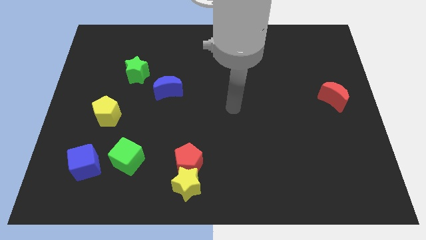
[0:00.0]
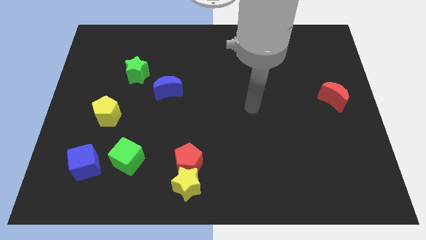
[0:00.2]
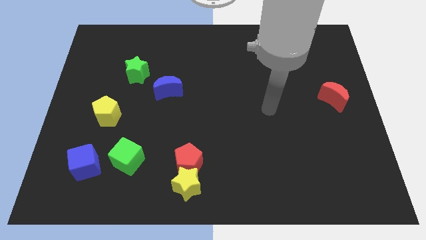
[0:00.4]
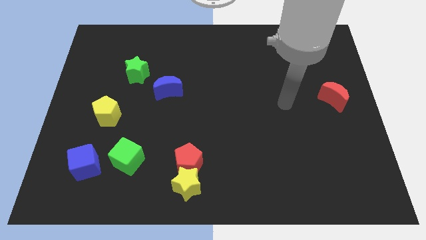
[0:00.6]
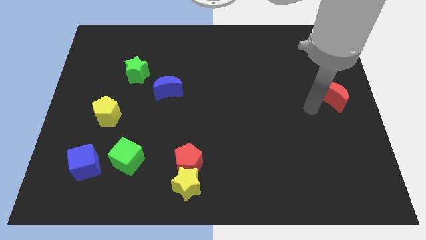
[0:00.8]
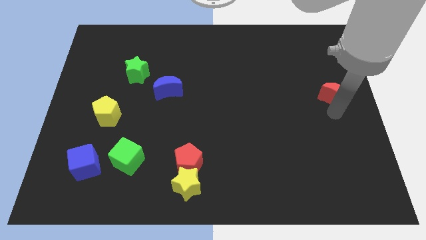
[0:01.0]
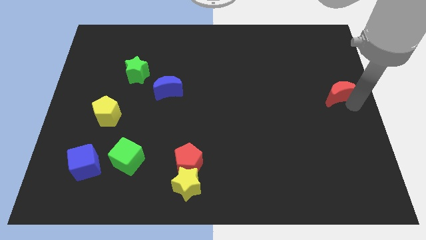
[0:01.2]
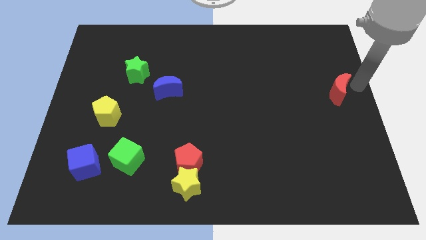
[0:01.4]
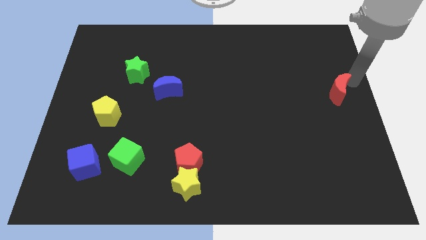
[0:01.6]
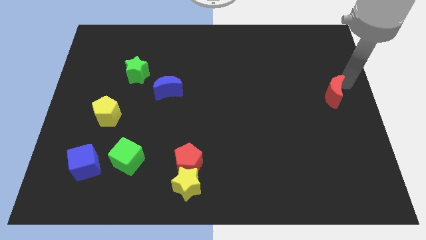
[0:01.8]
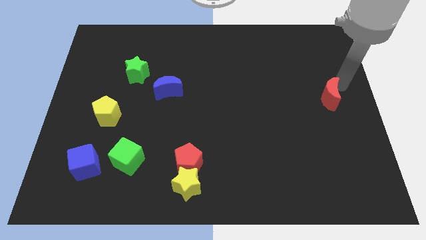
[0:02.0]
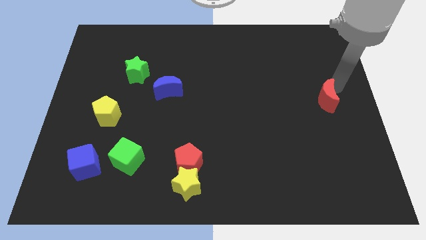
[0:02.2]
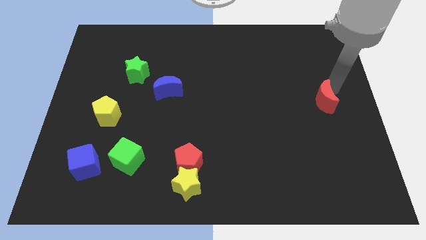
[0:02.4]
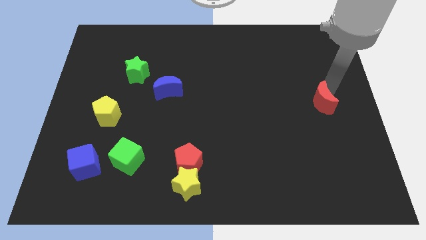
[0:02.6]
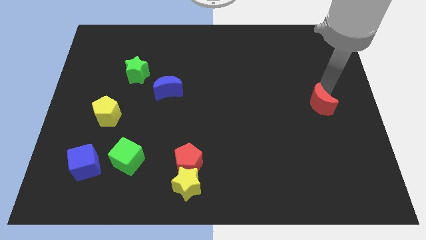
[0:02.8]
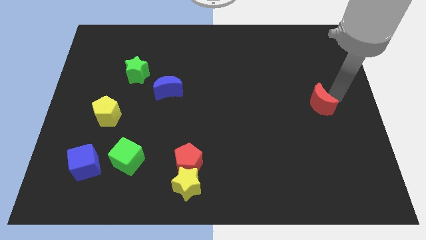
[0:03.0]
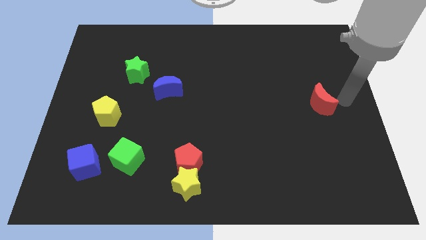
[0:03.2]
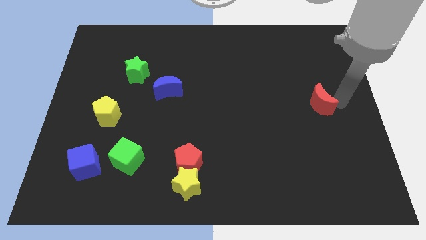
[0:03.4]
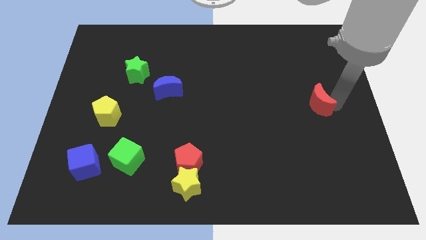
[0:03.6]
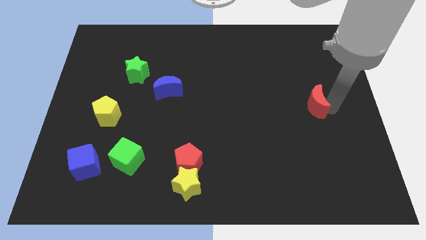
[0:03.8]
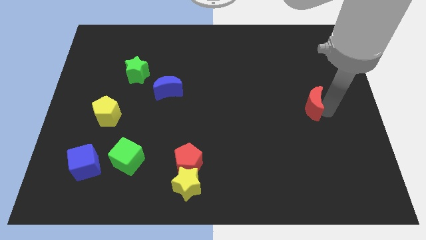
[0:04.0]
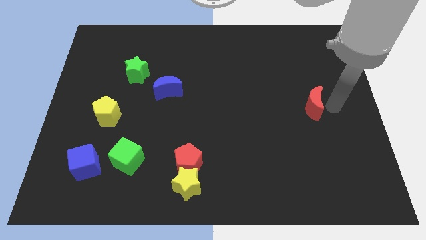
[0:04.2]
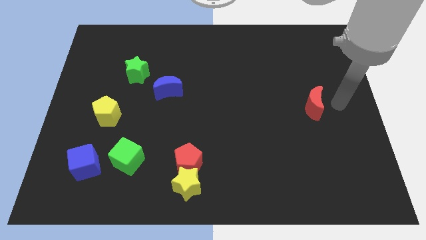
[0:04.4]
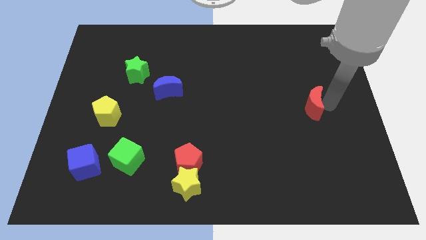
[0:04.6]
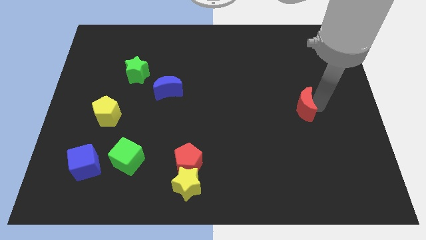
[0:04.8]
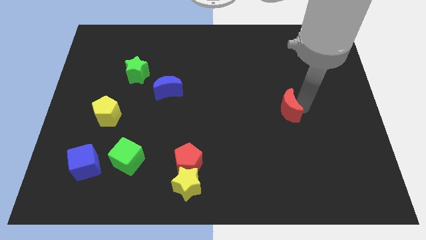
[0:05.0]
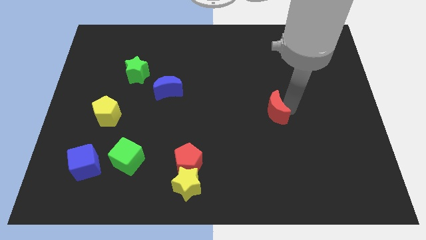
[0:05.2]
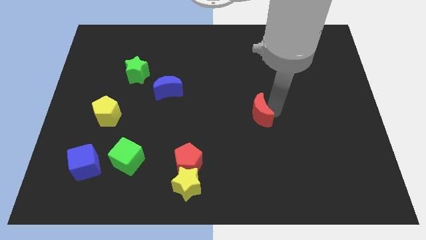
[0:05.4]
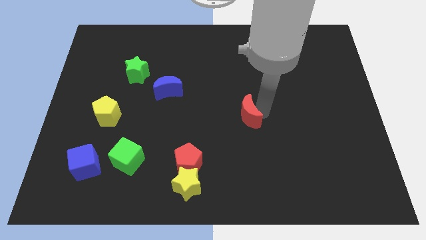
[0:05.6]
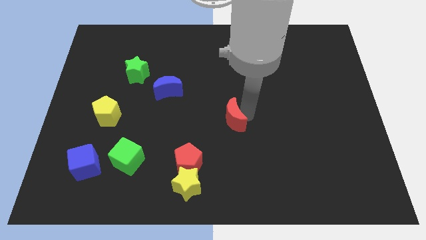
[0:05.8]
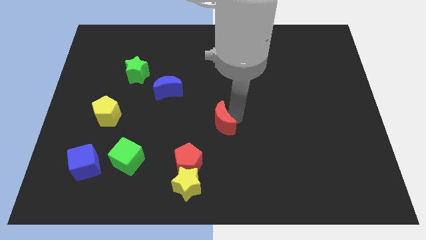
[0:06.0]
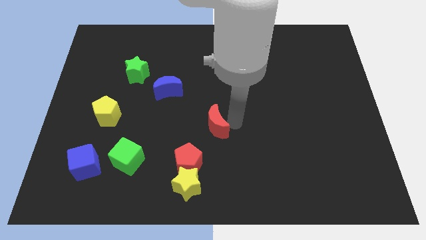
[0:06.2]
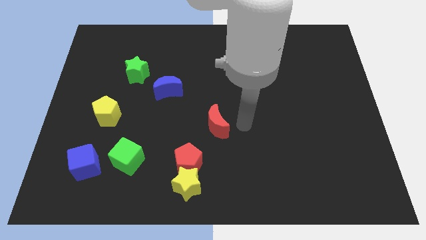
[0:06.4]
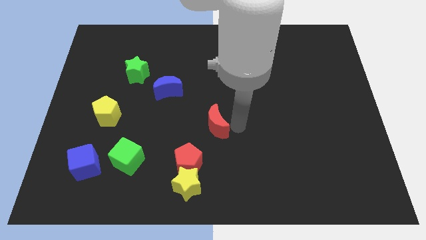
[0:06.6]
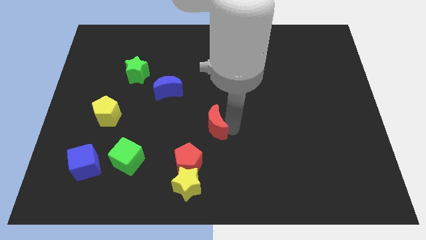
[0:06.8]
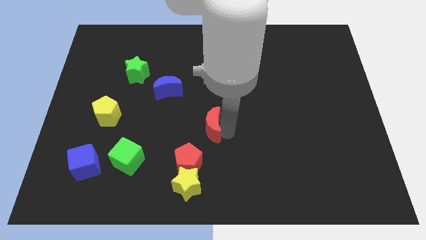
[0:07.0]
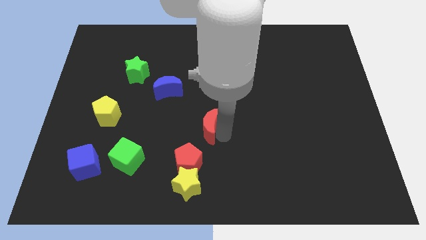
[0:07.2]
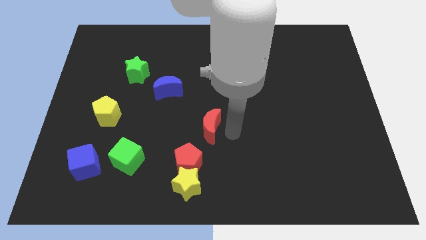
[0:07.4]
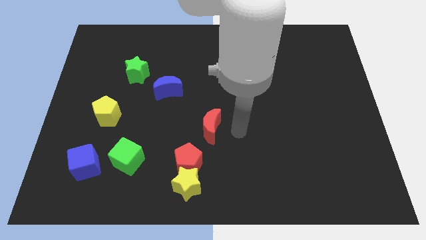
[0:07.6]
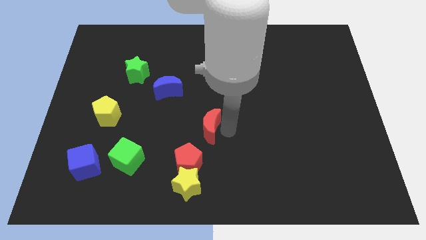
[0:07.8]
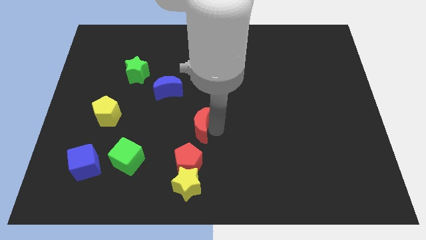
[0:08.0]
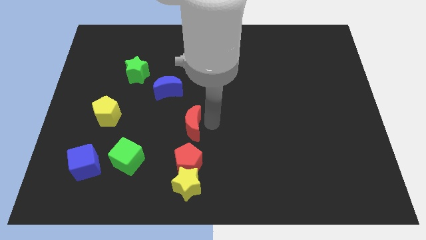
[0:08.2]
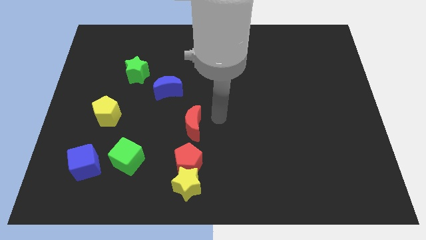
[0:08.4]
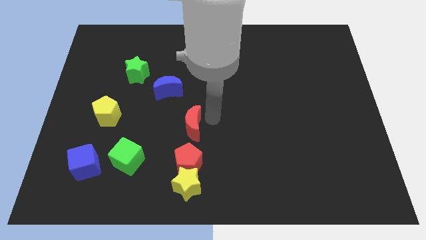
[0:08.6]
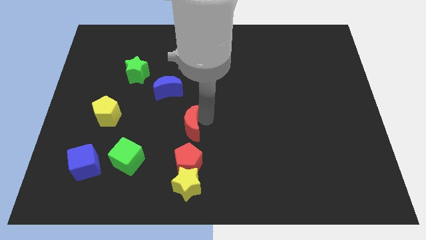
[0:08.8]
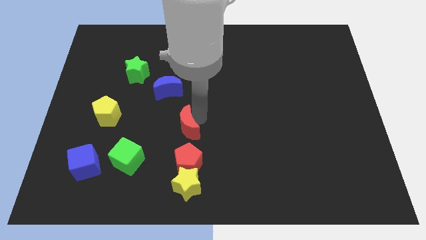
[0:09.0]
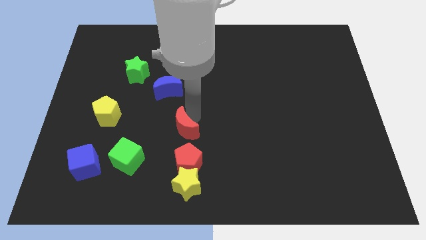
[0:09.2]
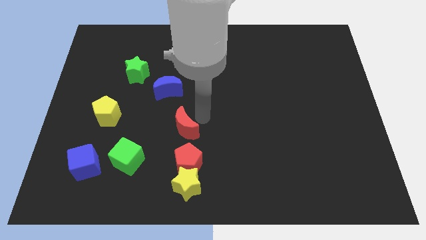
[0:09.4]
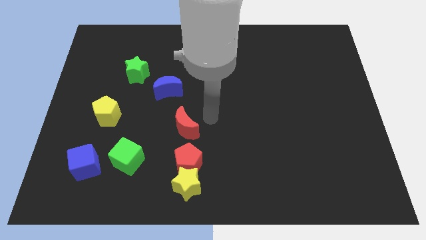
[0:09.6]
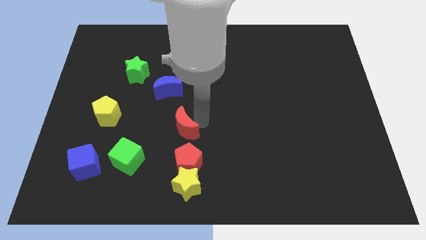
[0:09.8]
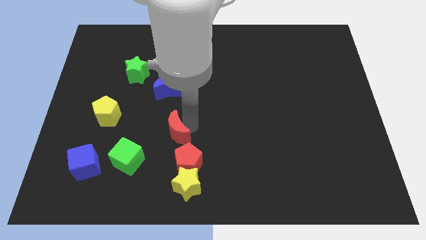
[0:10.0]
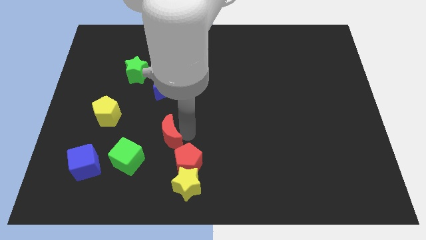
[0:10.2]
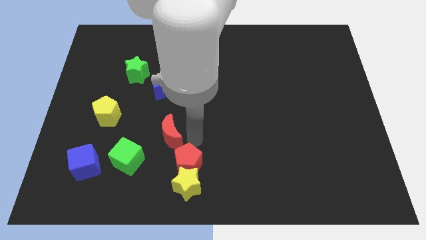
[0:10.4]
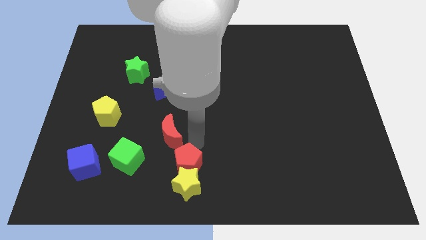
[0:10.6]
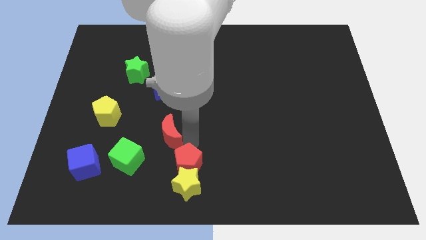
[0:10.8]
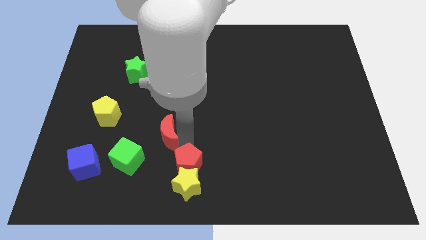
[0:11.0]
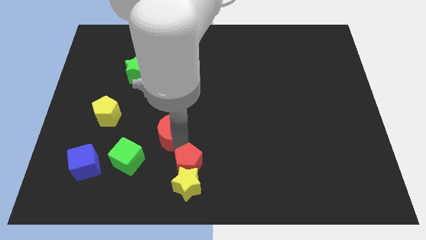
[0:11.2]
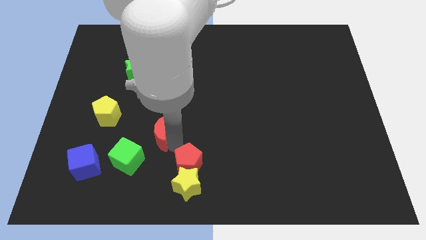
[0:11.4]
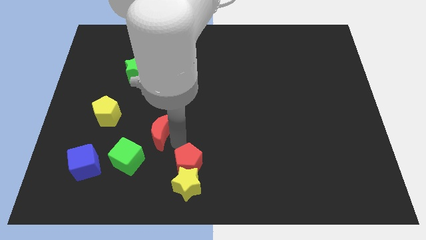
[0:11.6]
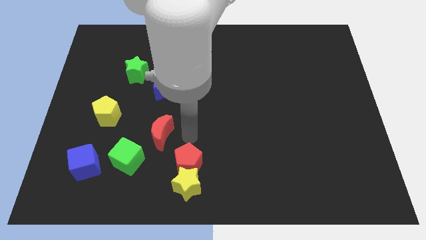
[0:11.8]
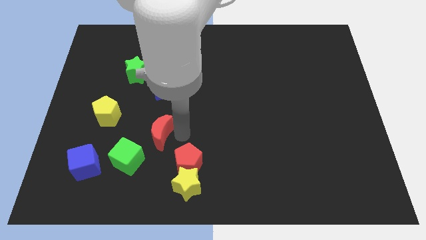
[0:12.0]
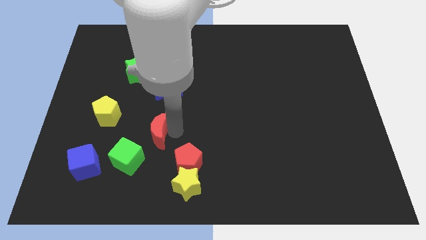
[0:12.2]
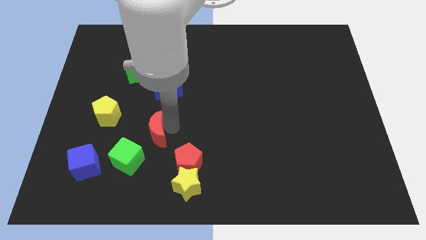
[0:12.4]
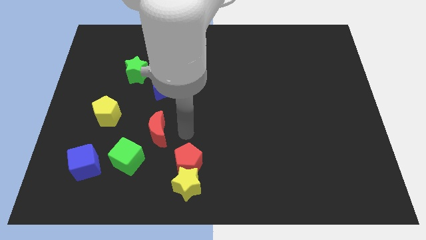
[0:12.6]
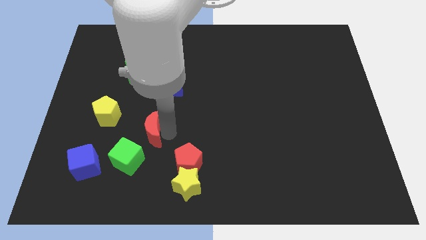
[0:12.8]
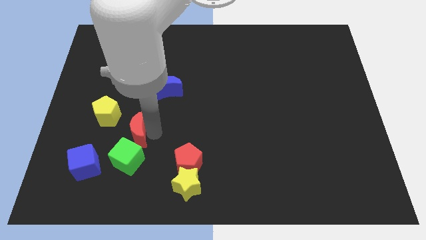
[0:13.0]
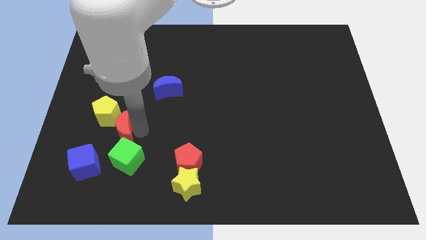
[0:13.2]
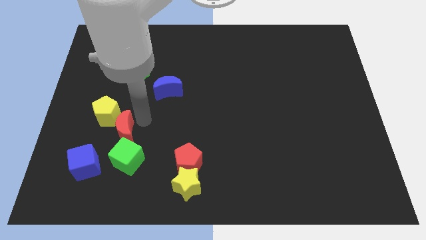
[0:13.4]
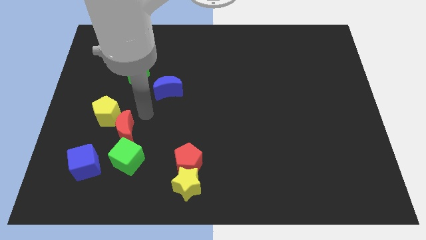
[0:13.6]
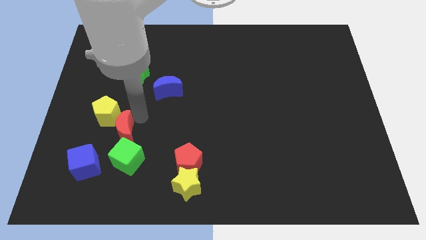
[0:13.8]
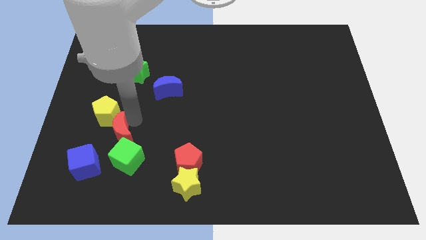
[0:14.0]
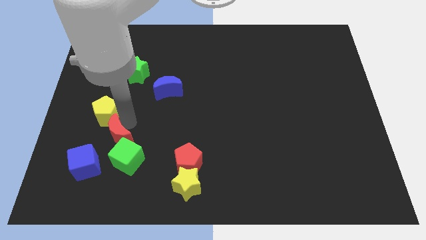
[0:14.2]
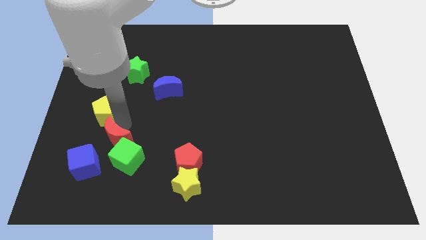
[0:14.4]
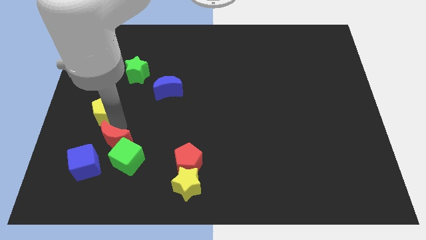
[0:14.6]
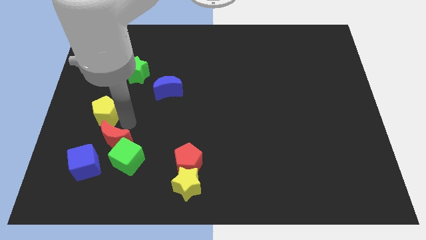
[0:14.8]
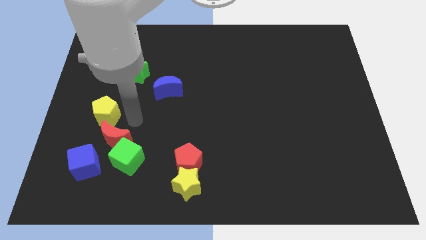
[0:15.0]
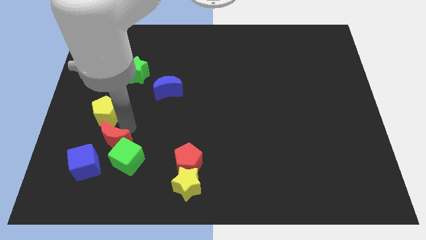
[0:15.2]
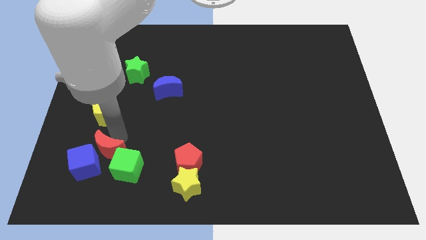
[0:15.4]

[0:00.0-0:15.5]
put the red moon next to the blue cube
